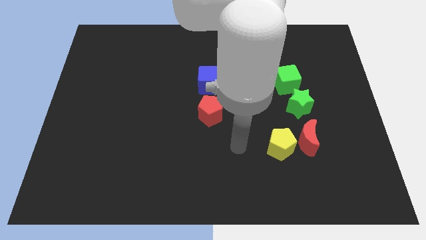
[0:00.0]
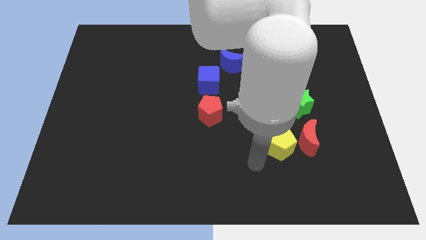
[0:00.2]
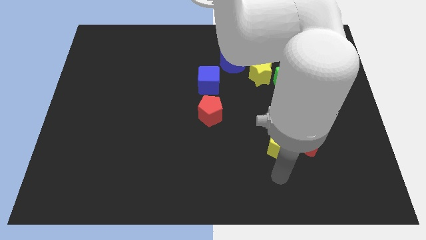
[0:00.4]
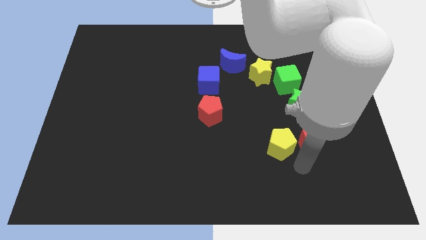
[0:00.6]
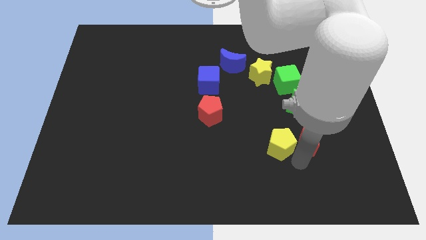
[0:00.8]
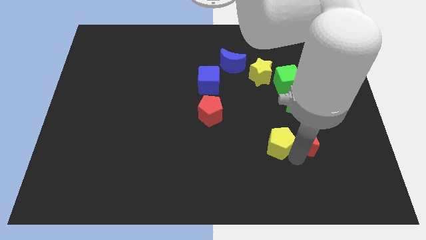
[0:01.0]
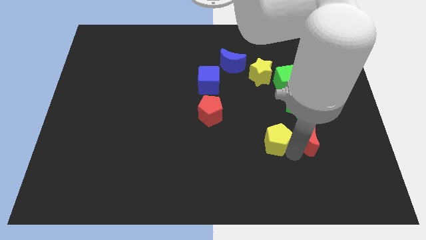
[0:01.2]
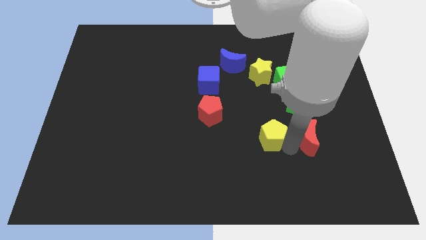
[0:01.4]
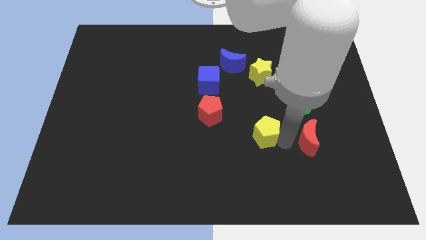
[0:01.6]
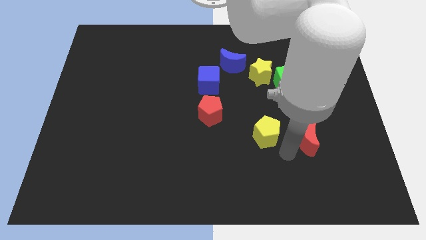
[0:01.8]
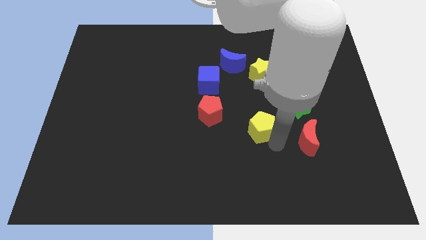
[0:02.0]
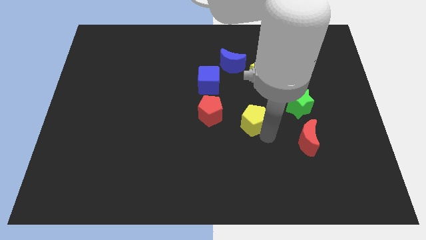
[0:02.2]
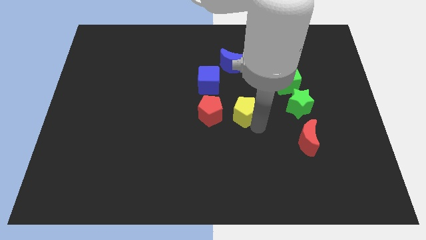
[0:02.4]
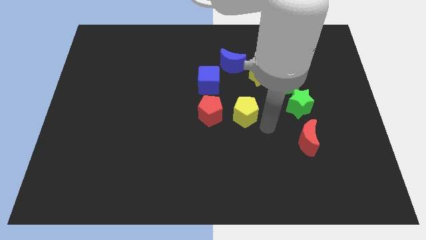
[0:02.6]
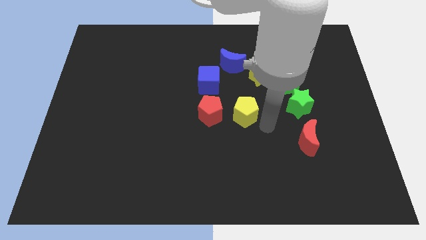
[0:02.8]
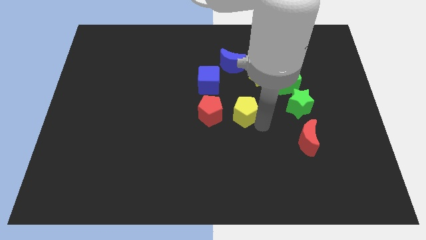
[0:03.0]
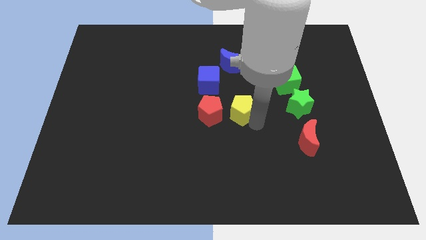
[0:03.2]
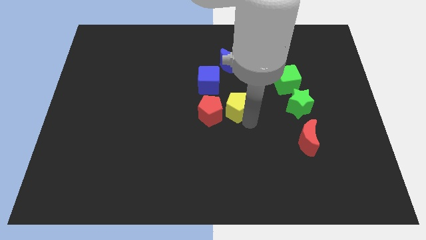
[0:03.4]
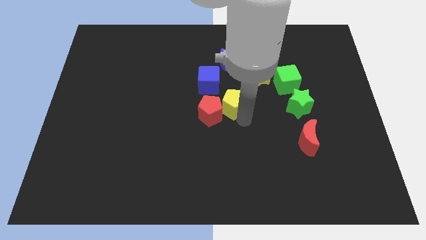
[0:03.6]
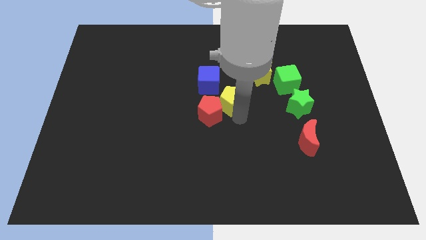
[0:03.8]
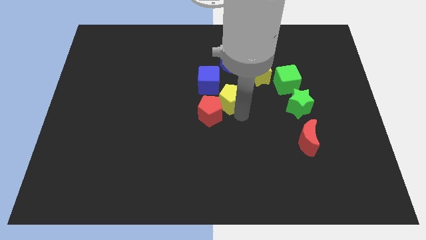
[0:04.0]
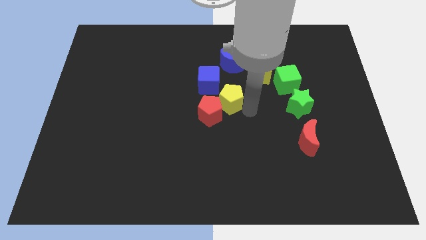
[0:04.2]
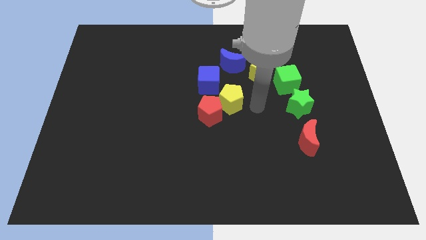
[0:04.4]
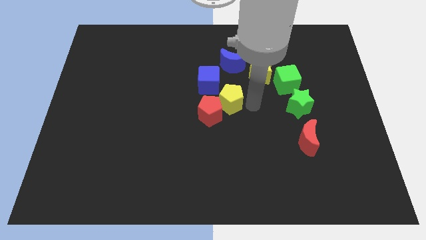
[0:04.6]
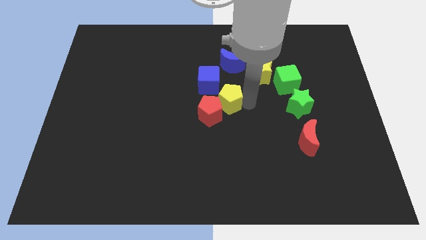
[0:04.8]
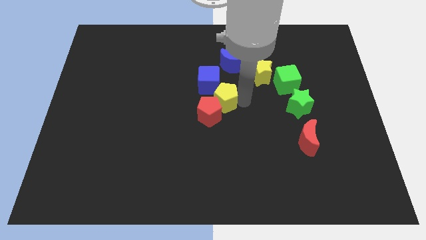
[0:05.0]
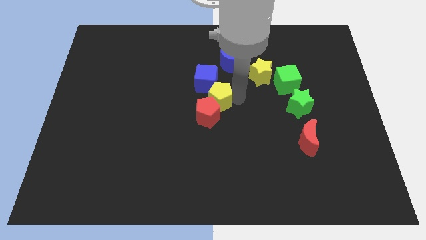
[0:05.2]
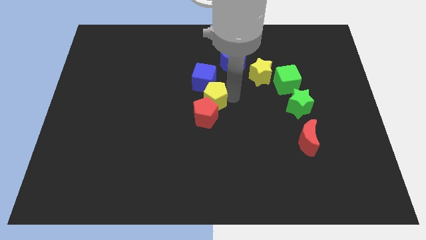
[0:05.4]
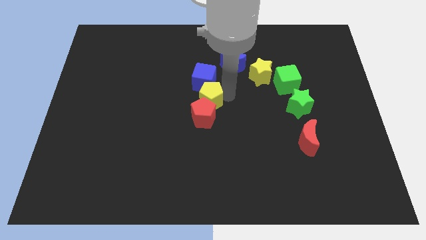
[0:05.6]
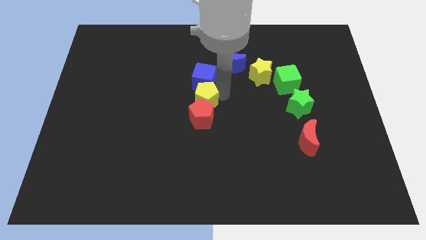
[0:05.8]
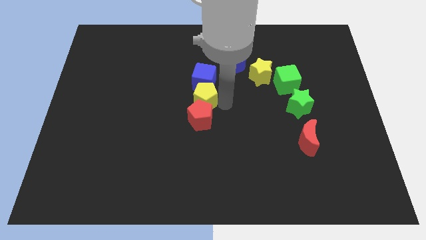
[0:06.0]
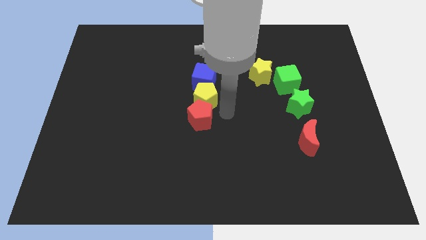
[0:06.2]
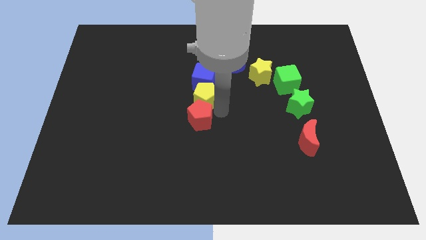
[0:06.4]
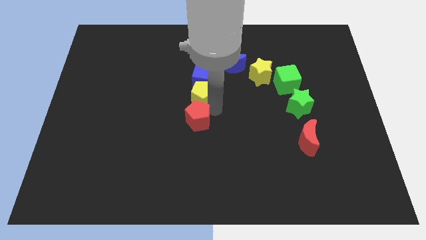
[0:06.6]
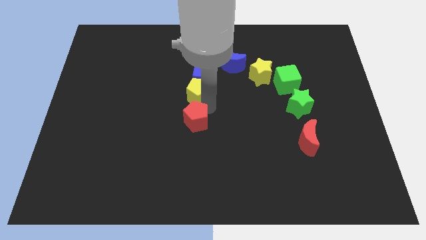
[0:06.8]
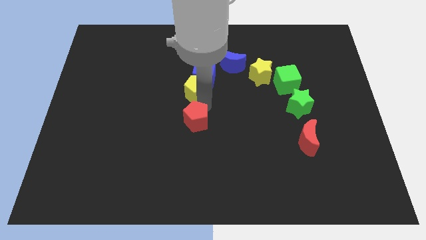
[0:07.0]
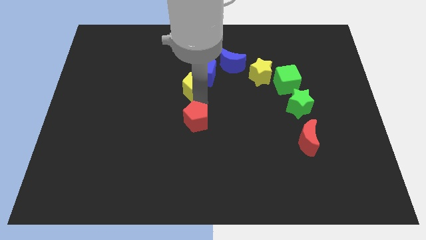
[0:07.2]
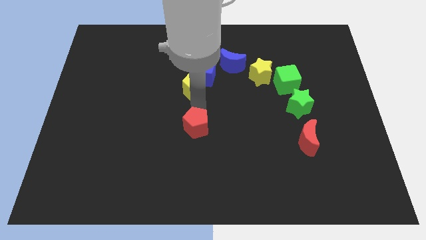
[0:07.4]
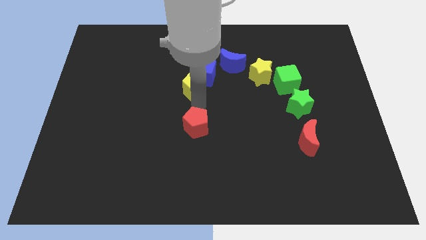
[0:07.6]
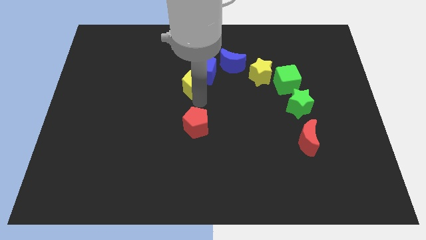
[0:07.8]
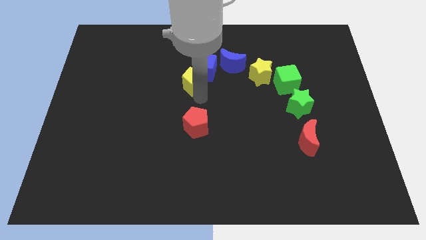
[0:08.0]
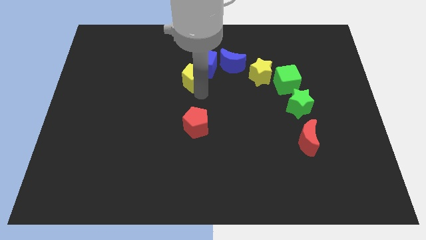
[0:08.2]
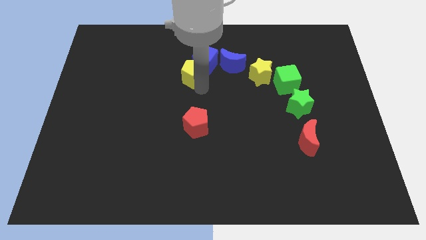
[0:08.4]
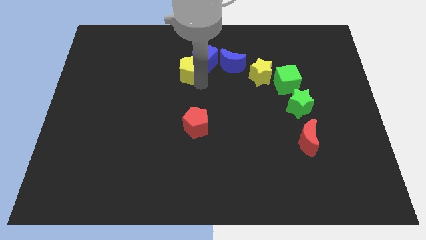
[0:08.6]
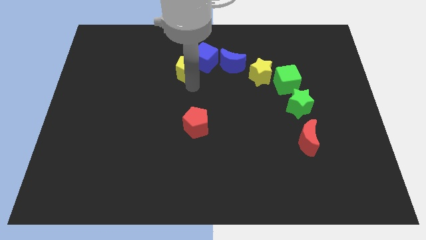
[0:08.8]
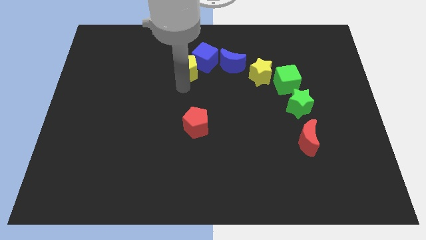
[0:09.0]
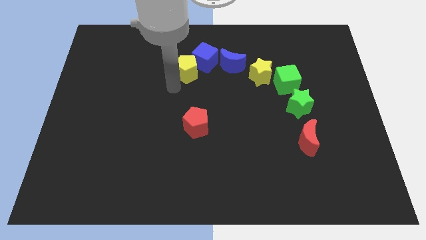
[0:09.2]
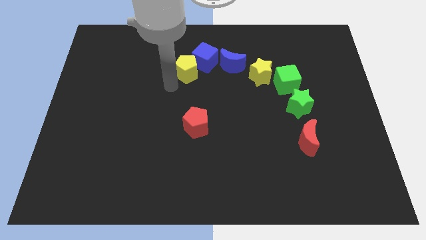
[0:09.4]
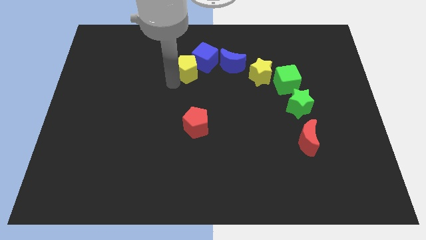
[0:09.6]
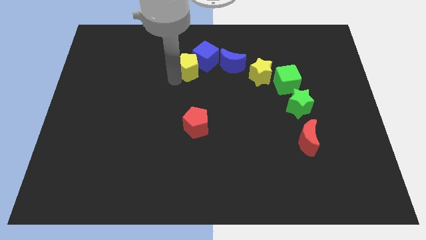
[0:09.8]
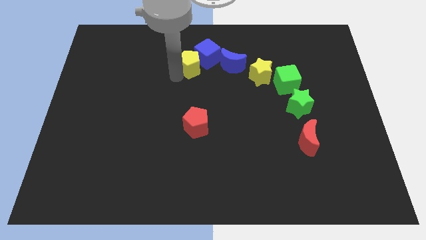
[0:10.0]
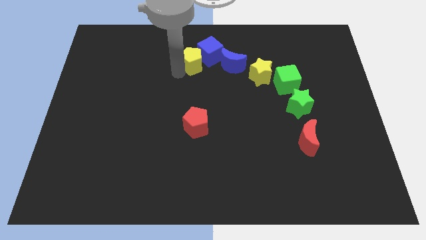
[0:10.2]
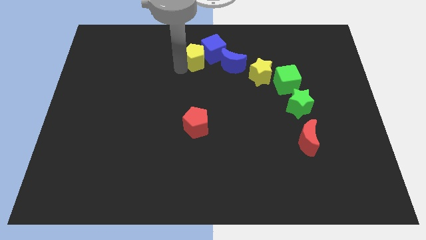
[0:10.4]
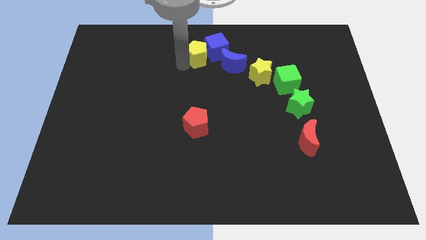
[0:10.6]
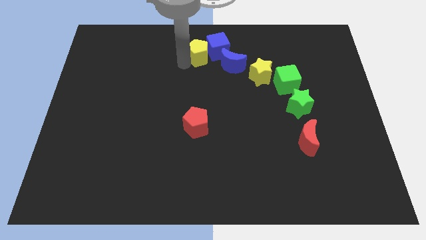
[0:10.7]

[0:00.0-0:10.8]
put the yellow pentagon to the top side
